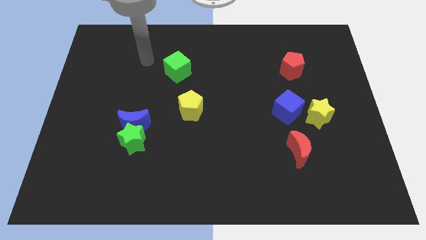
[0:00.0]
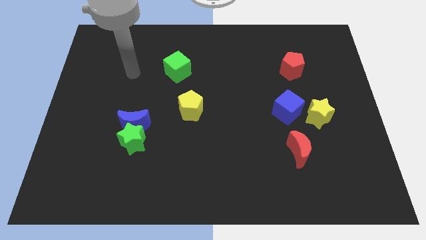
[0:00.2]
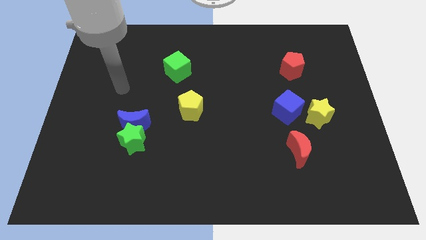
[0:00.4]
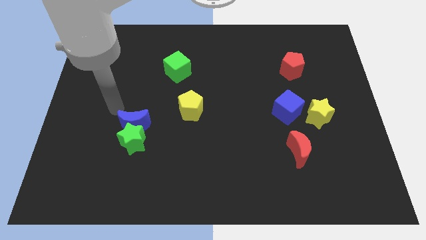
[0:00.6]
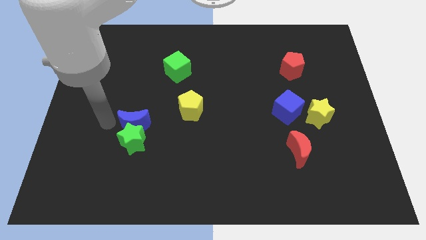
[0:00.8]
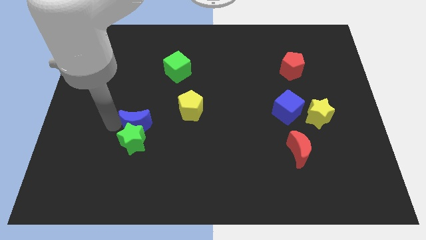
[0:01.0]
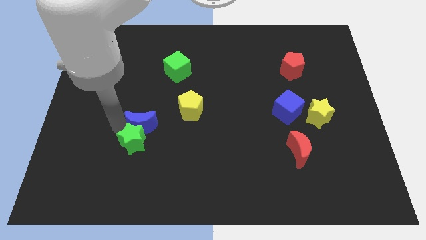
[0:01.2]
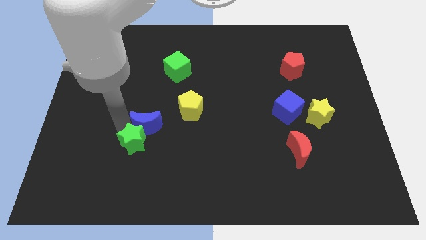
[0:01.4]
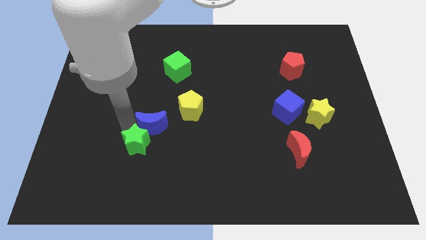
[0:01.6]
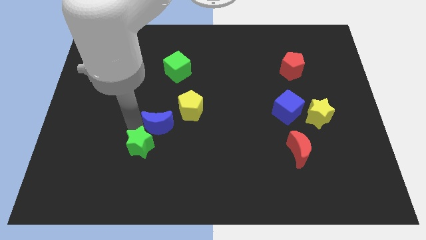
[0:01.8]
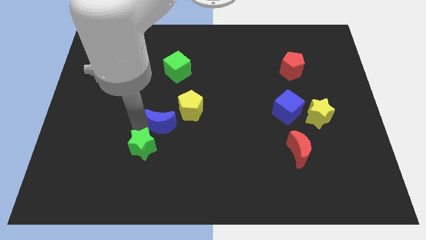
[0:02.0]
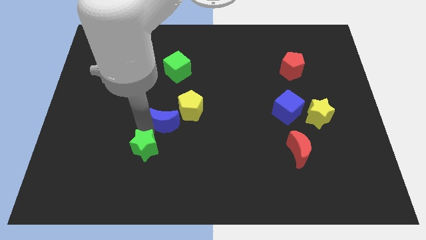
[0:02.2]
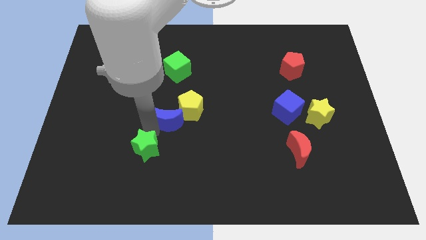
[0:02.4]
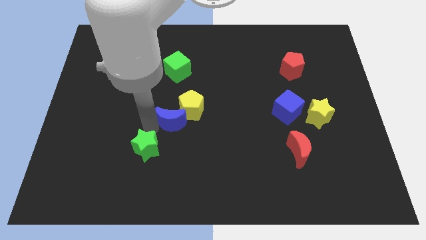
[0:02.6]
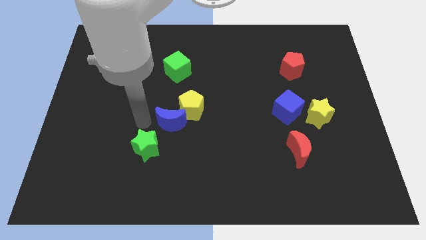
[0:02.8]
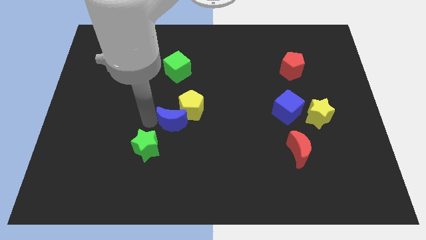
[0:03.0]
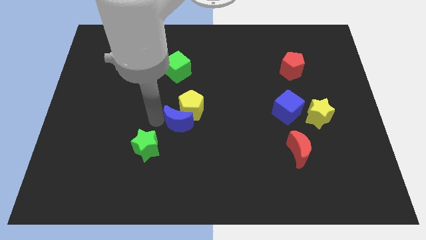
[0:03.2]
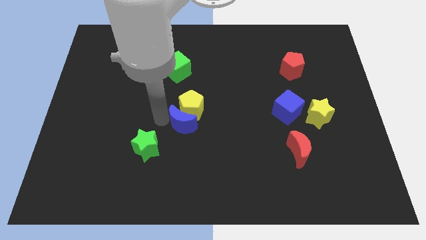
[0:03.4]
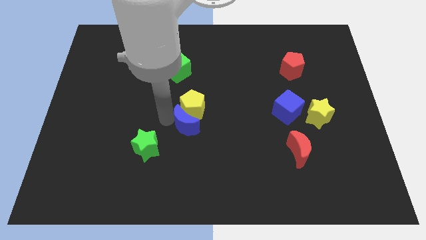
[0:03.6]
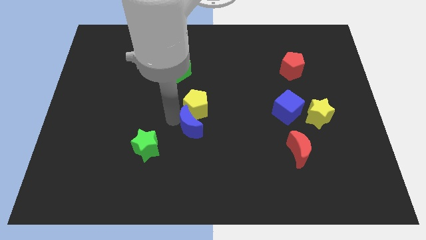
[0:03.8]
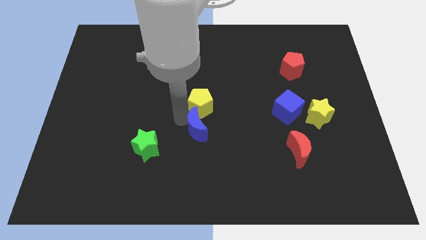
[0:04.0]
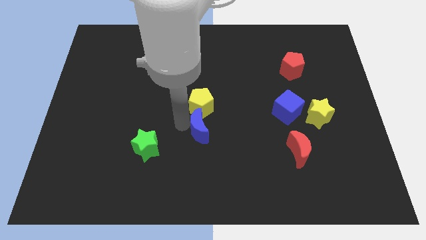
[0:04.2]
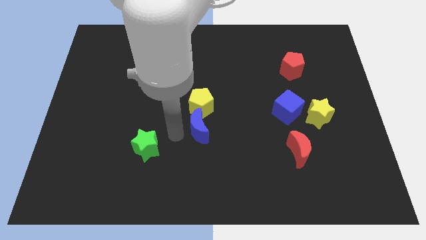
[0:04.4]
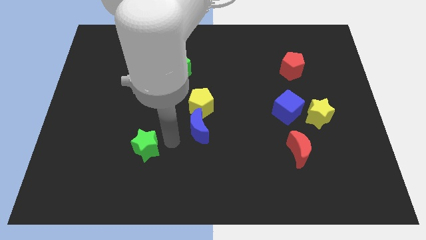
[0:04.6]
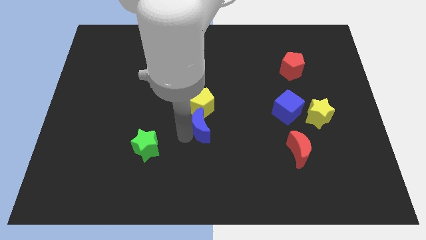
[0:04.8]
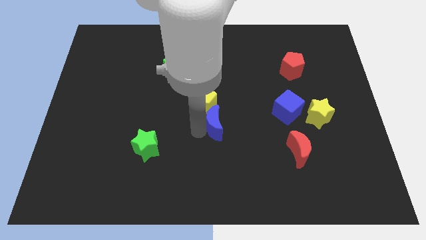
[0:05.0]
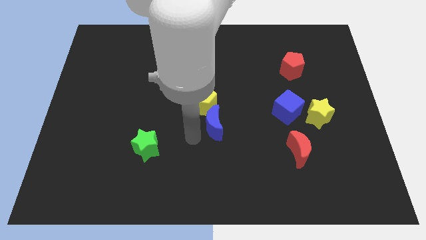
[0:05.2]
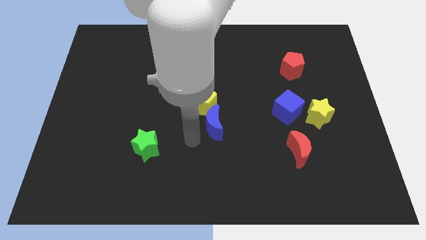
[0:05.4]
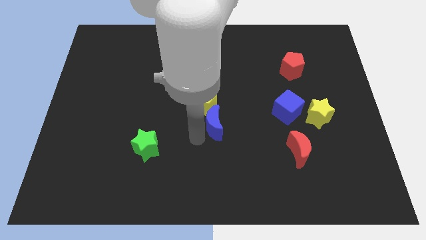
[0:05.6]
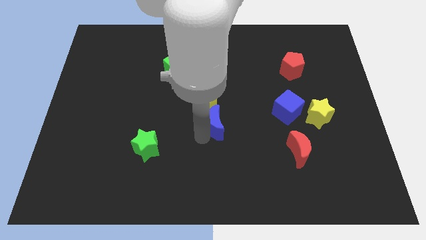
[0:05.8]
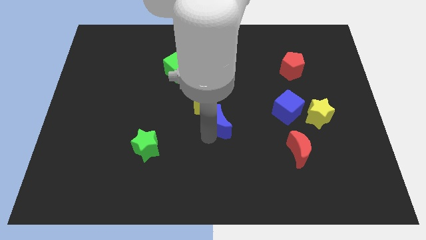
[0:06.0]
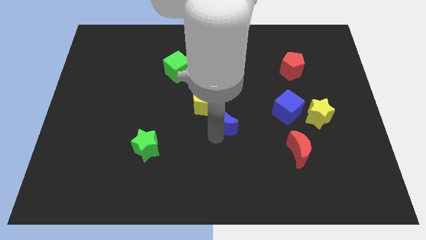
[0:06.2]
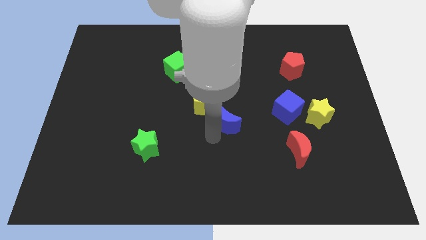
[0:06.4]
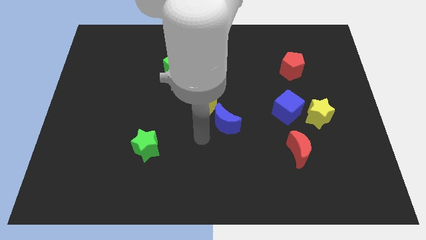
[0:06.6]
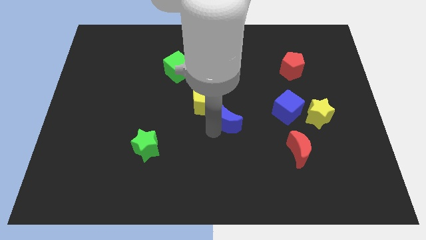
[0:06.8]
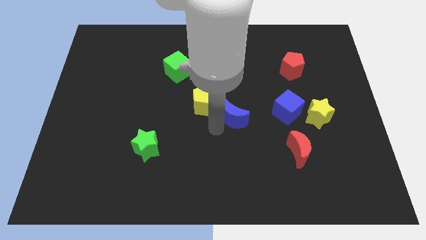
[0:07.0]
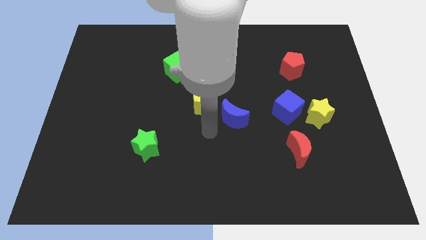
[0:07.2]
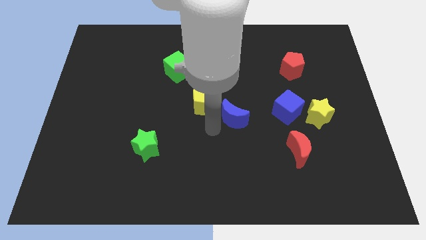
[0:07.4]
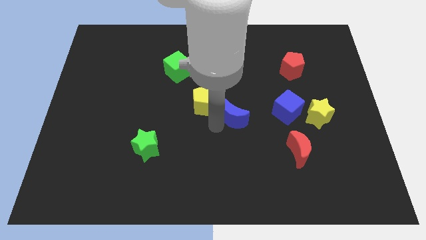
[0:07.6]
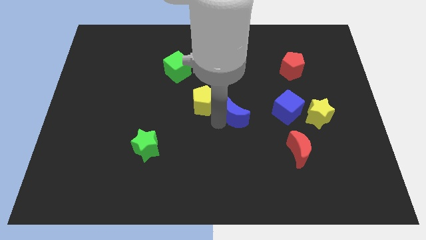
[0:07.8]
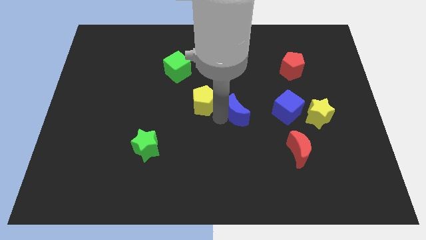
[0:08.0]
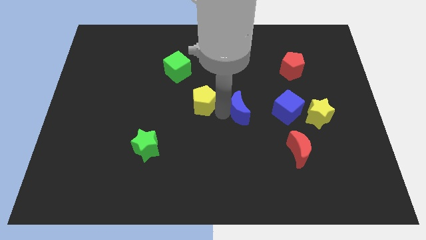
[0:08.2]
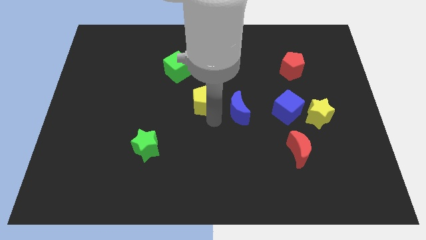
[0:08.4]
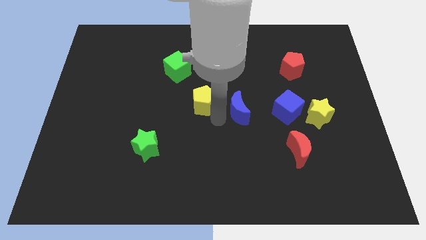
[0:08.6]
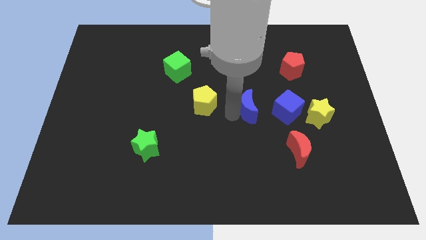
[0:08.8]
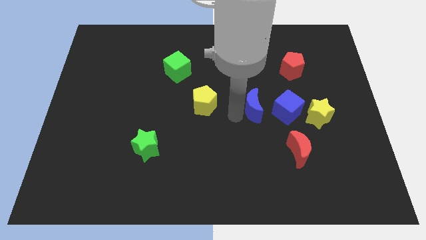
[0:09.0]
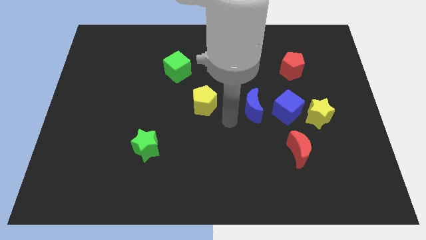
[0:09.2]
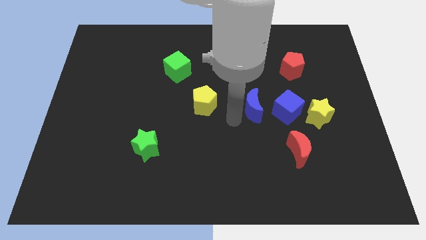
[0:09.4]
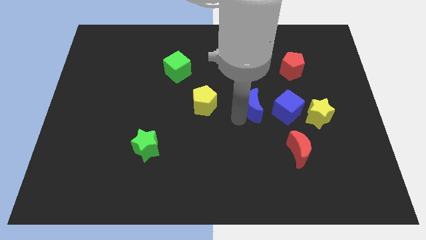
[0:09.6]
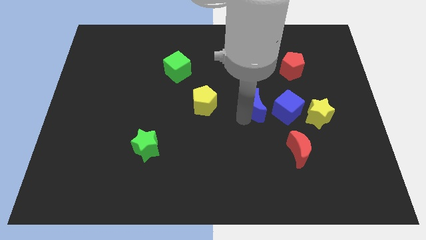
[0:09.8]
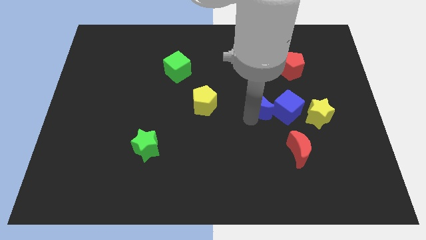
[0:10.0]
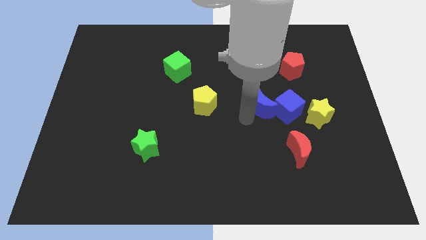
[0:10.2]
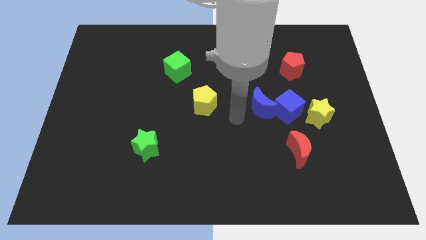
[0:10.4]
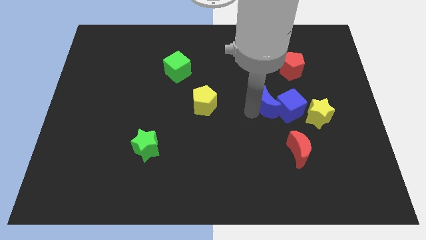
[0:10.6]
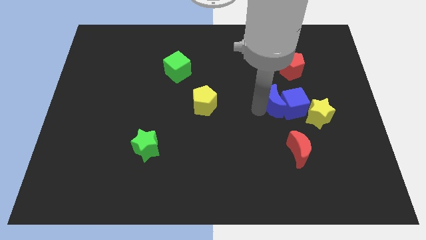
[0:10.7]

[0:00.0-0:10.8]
push the blue moon to the top of the red moon
